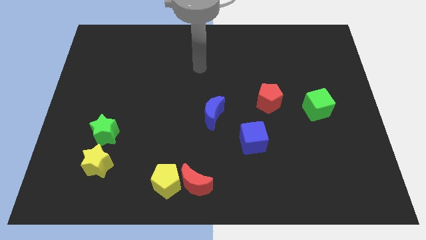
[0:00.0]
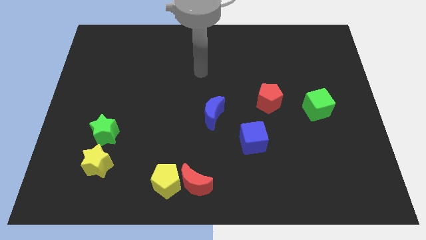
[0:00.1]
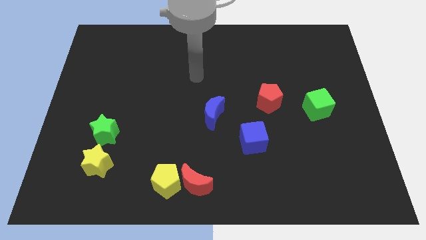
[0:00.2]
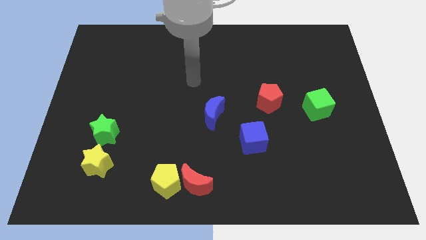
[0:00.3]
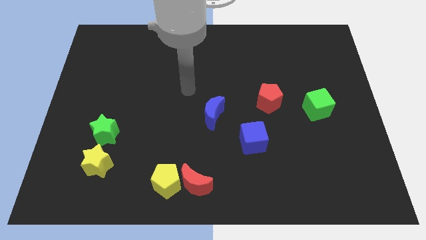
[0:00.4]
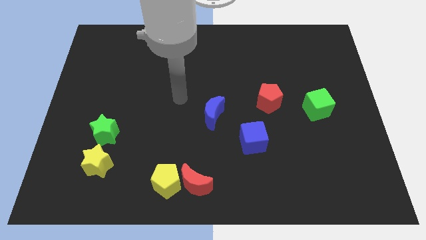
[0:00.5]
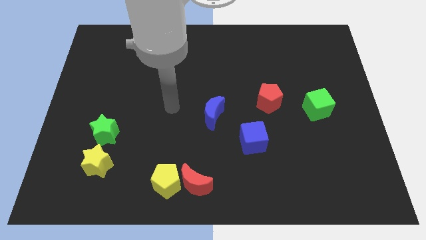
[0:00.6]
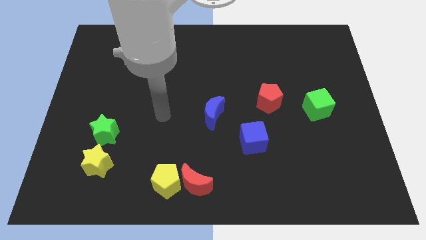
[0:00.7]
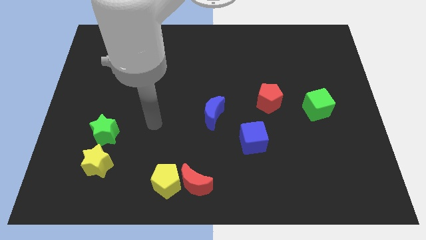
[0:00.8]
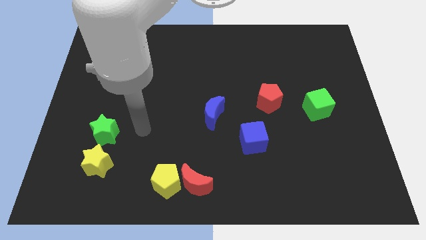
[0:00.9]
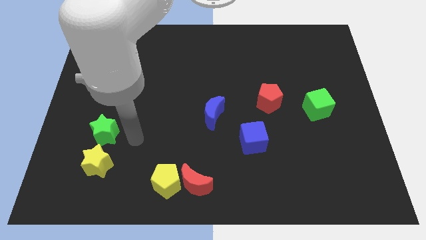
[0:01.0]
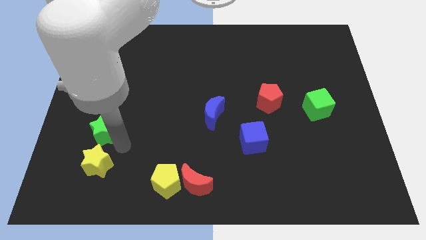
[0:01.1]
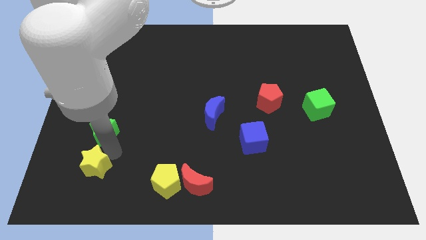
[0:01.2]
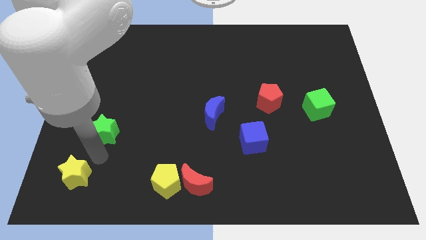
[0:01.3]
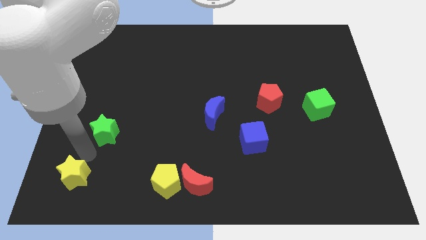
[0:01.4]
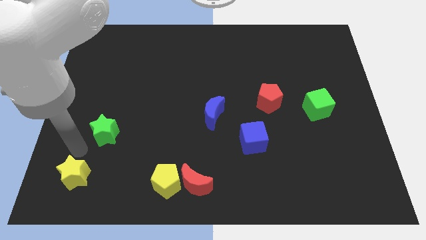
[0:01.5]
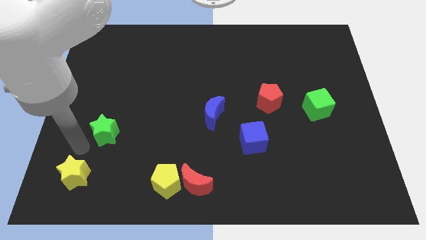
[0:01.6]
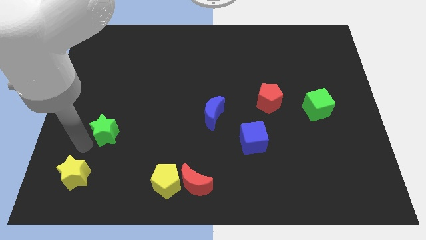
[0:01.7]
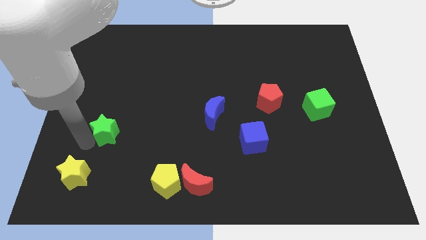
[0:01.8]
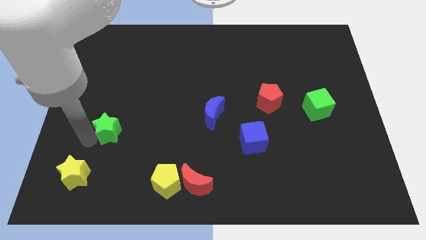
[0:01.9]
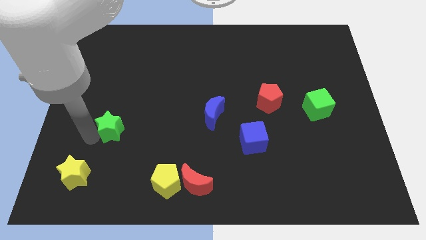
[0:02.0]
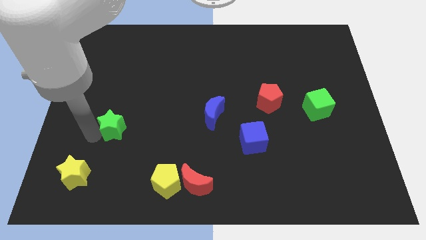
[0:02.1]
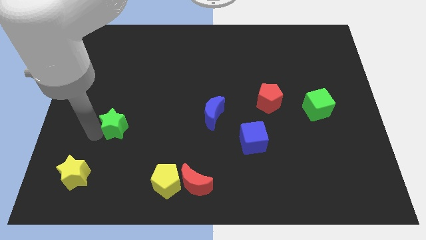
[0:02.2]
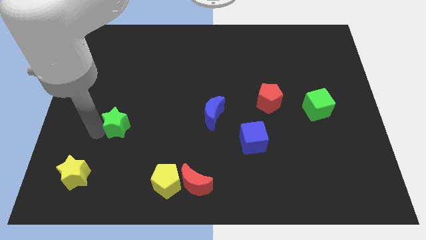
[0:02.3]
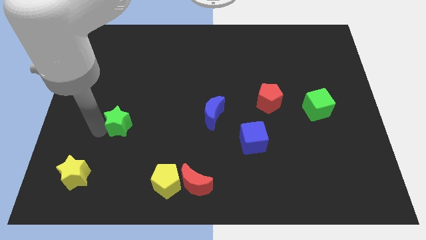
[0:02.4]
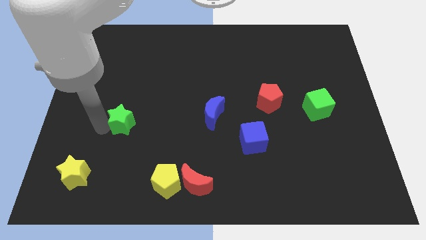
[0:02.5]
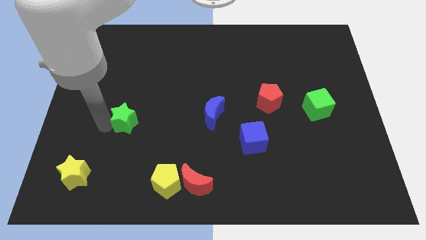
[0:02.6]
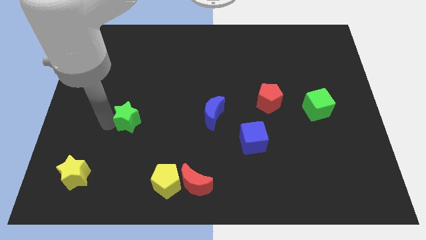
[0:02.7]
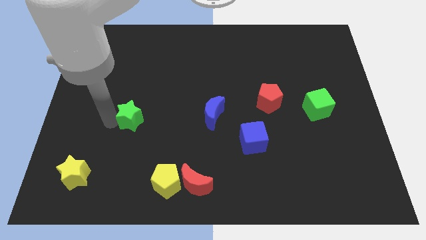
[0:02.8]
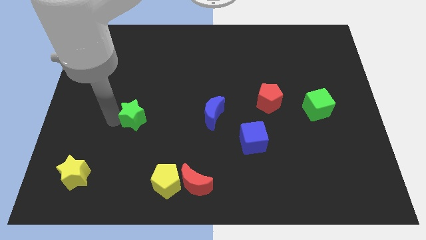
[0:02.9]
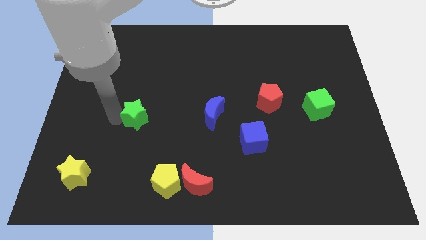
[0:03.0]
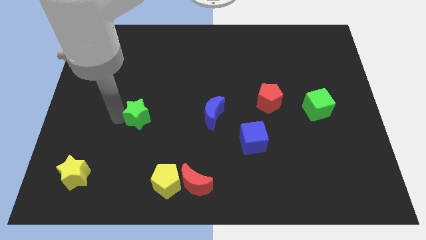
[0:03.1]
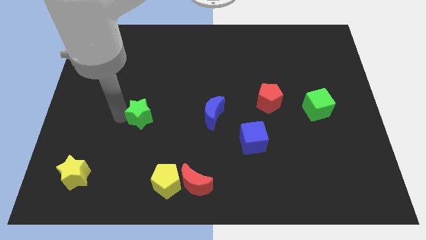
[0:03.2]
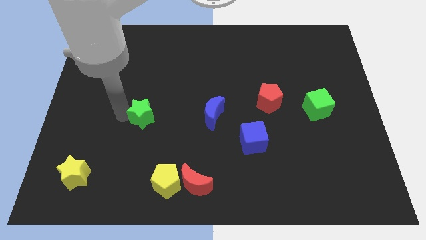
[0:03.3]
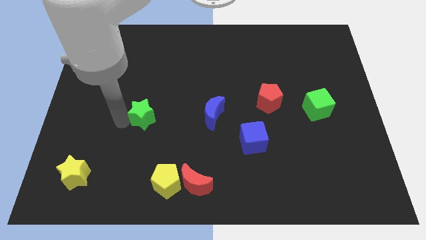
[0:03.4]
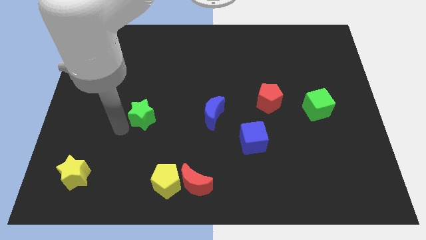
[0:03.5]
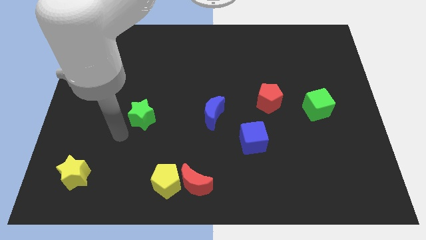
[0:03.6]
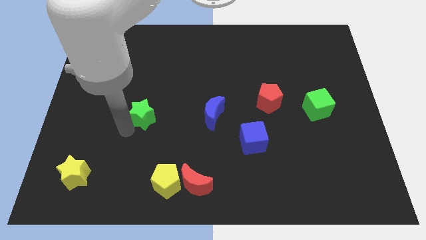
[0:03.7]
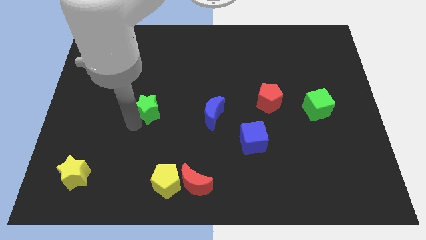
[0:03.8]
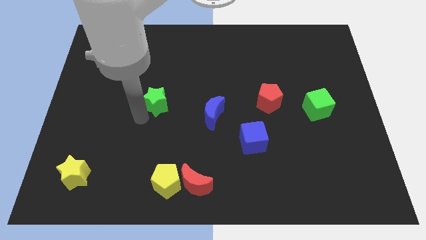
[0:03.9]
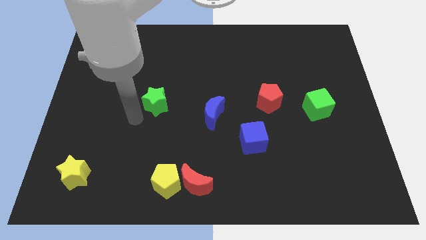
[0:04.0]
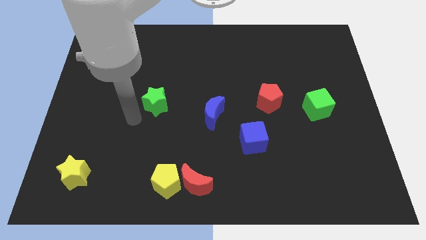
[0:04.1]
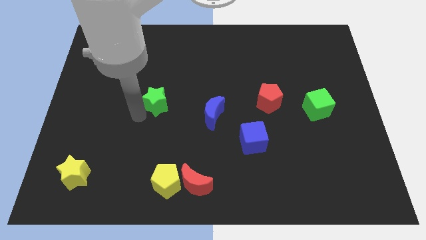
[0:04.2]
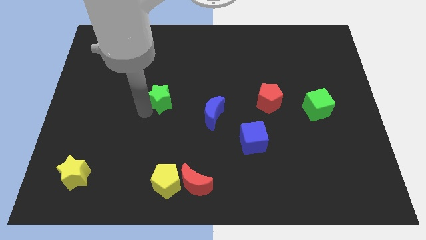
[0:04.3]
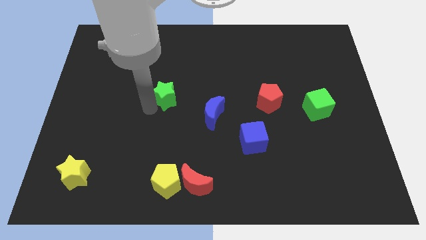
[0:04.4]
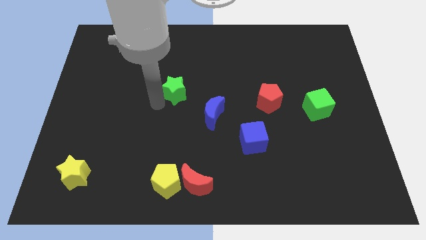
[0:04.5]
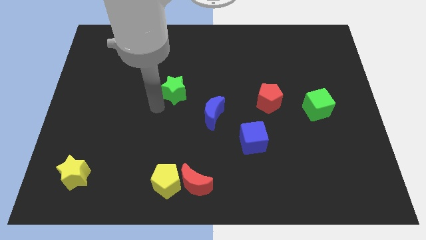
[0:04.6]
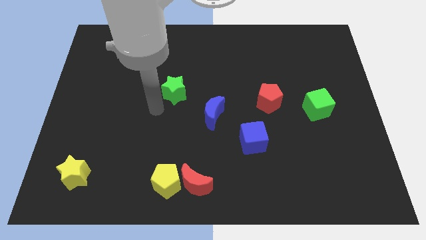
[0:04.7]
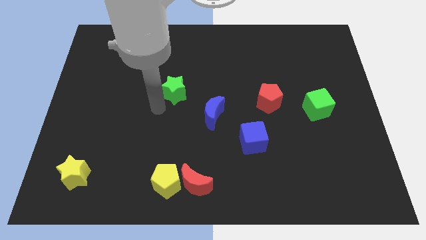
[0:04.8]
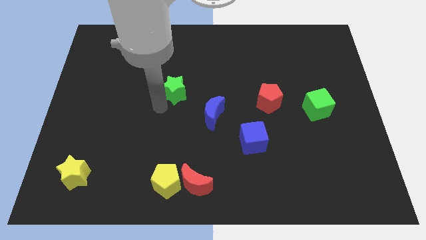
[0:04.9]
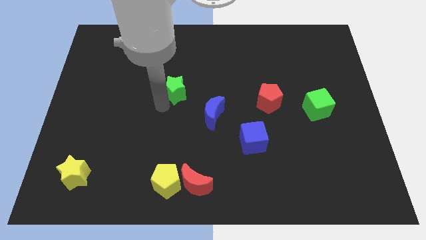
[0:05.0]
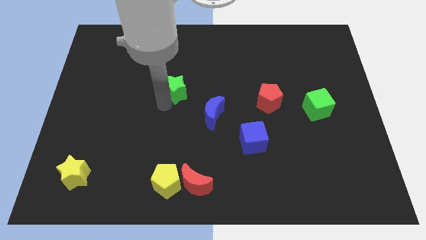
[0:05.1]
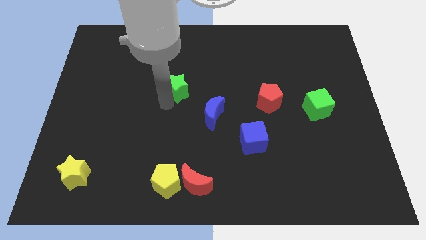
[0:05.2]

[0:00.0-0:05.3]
push the green star up and right

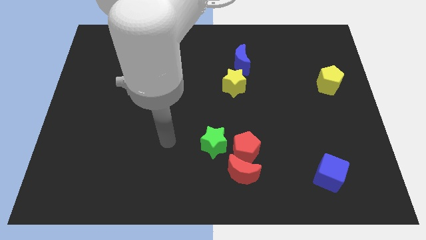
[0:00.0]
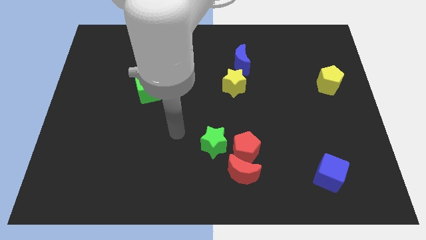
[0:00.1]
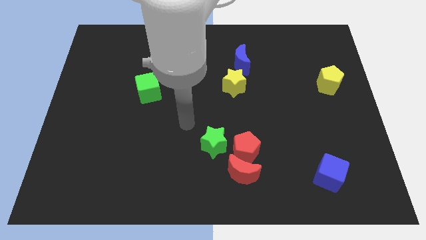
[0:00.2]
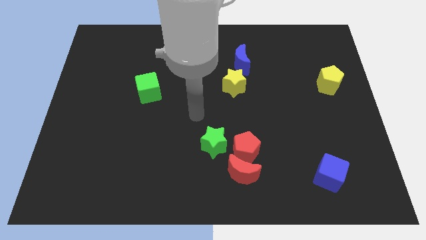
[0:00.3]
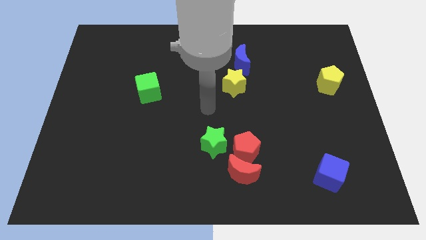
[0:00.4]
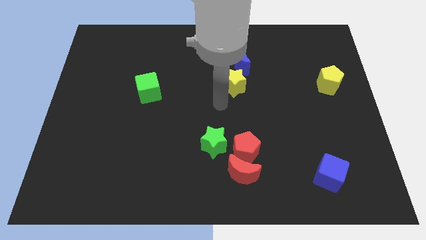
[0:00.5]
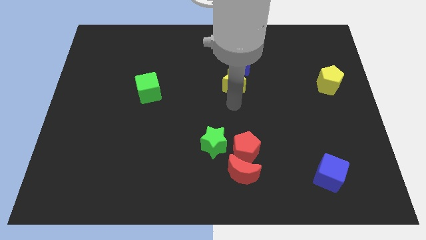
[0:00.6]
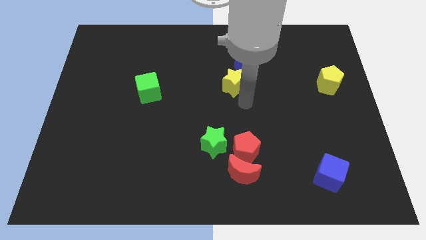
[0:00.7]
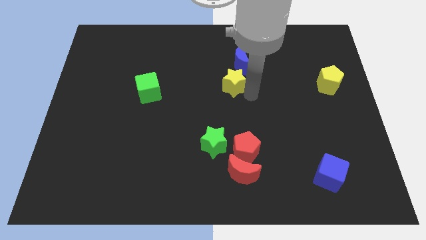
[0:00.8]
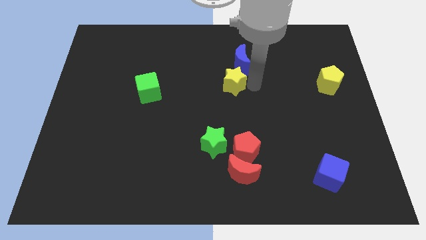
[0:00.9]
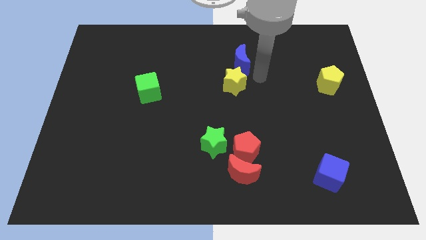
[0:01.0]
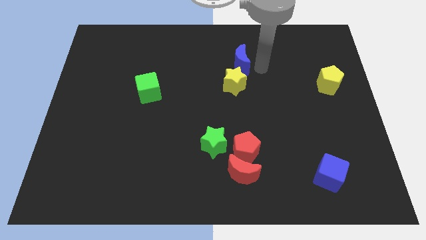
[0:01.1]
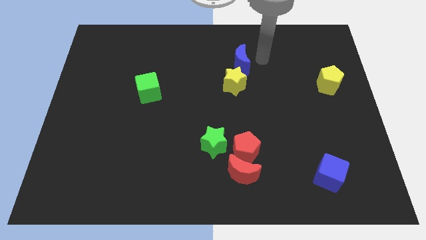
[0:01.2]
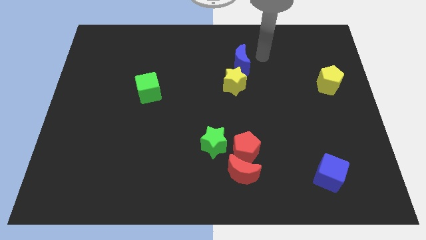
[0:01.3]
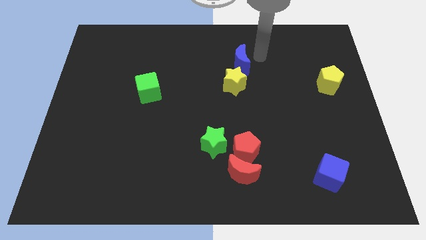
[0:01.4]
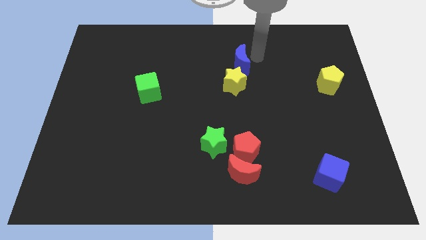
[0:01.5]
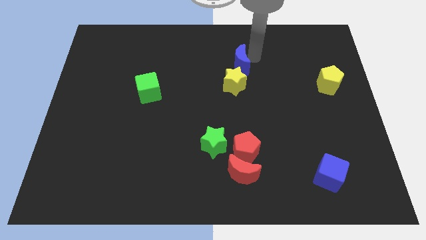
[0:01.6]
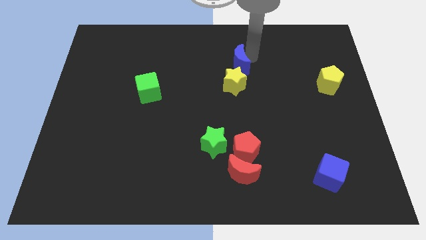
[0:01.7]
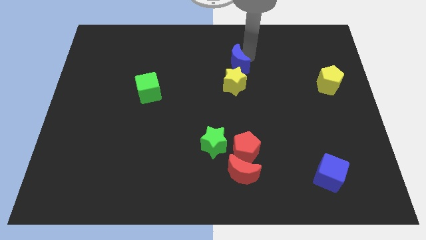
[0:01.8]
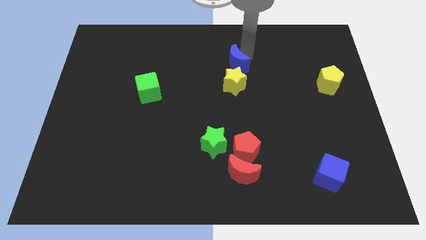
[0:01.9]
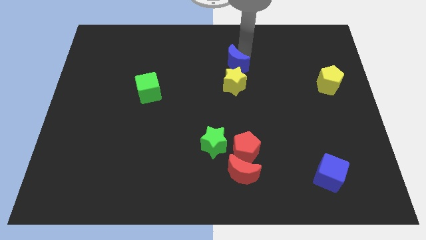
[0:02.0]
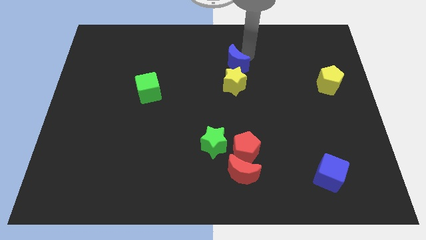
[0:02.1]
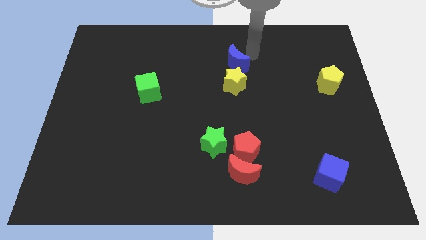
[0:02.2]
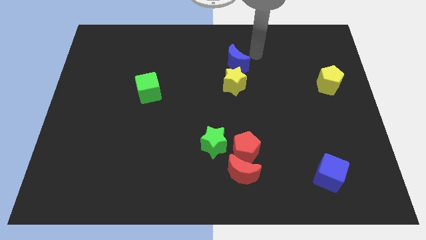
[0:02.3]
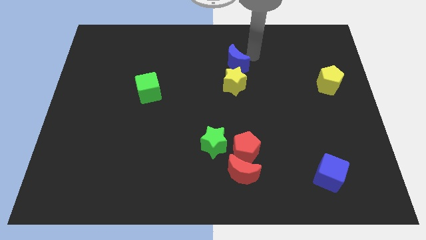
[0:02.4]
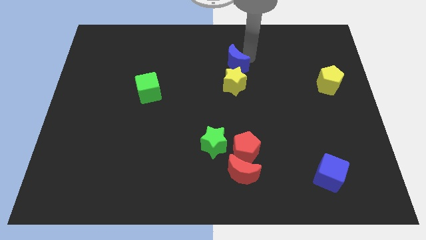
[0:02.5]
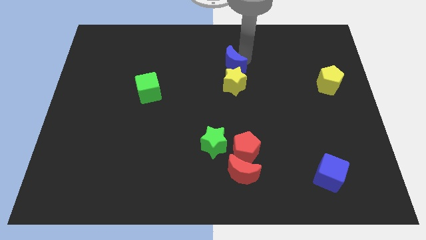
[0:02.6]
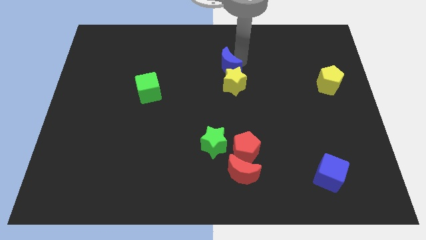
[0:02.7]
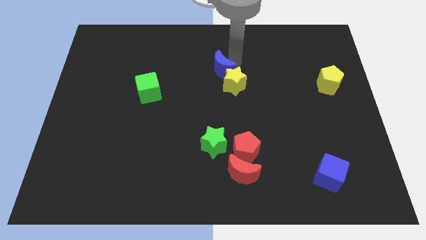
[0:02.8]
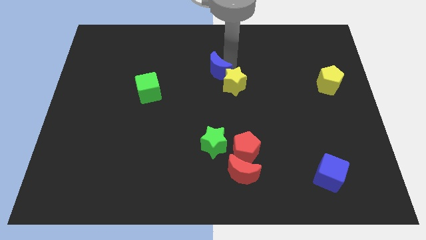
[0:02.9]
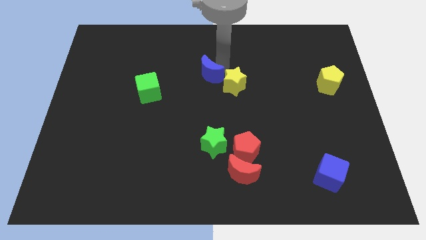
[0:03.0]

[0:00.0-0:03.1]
slightly push the blue moon downwards and then left
